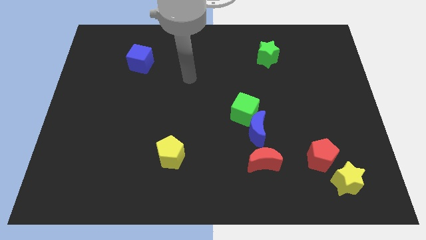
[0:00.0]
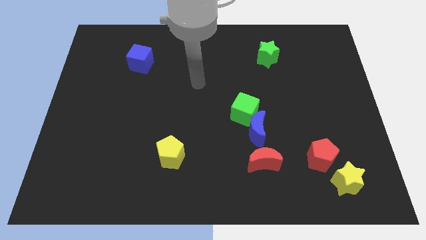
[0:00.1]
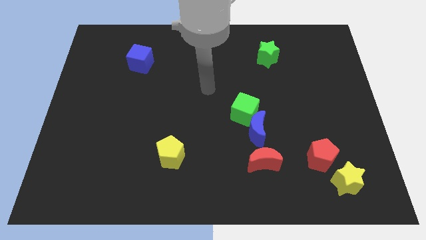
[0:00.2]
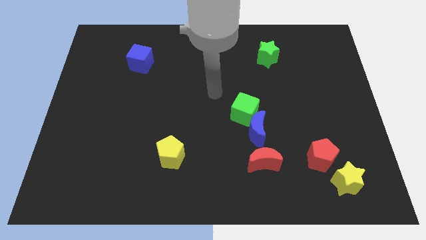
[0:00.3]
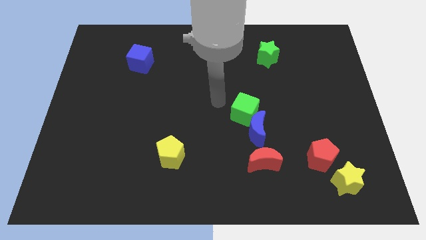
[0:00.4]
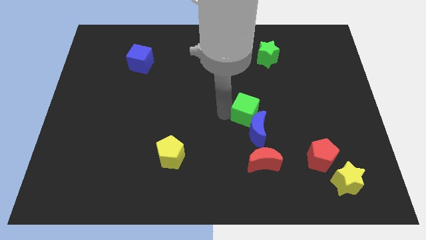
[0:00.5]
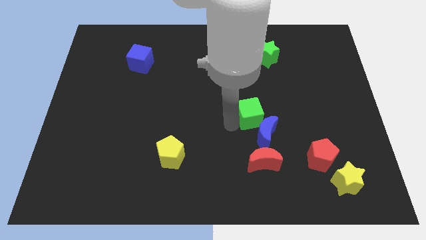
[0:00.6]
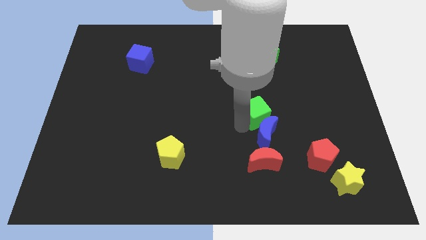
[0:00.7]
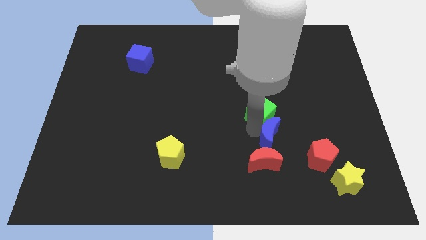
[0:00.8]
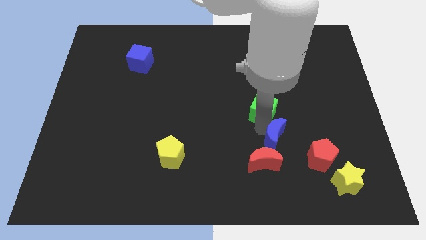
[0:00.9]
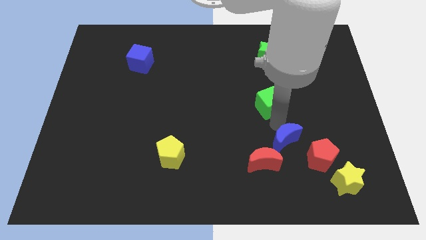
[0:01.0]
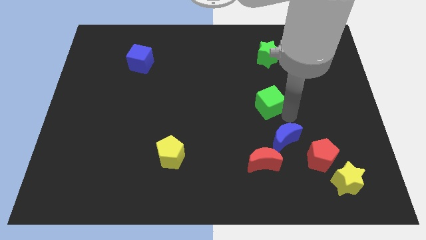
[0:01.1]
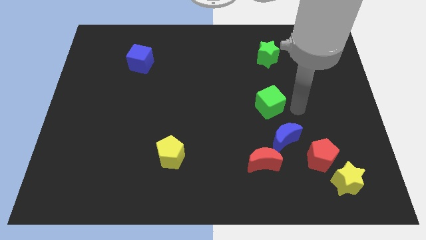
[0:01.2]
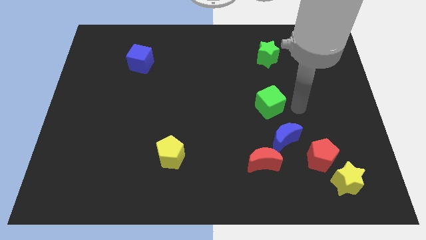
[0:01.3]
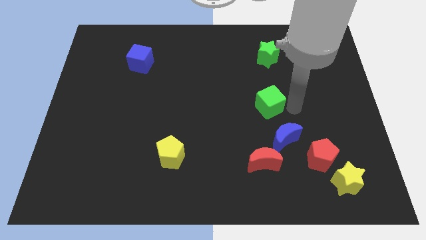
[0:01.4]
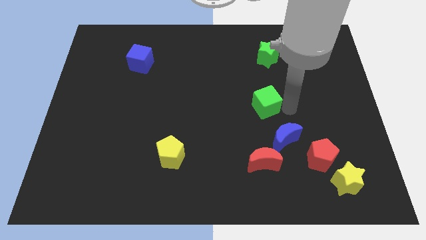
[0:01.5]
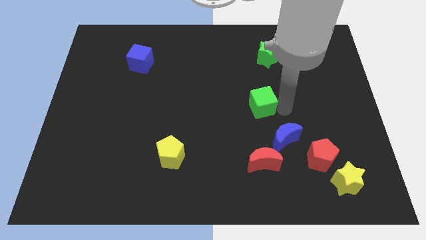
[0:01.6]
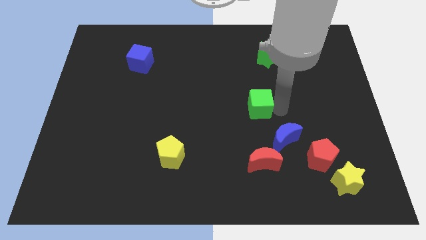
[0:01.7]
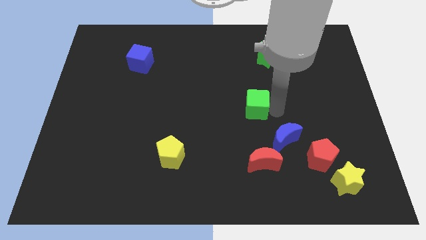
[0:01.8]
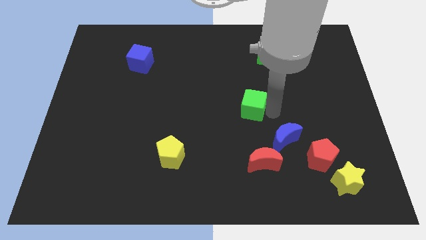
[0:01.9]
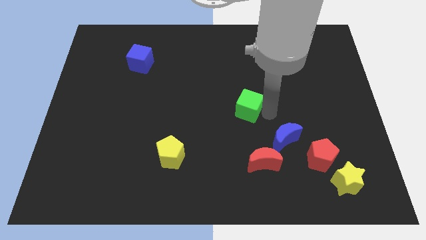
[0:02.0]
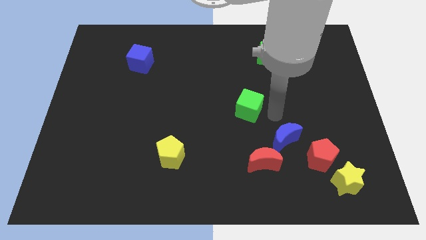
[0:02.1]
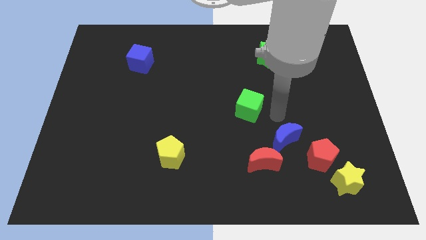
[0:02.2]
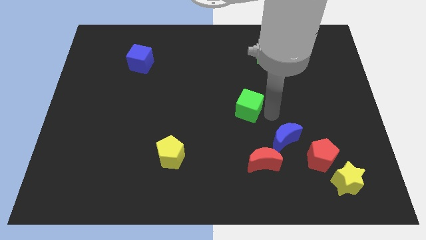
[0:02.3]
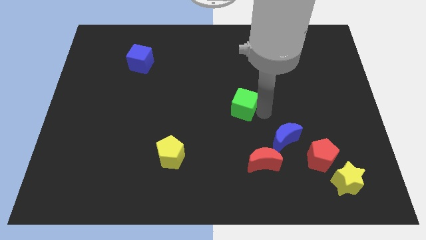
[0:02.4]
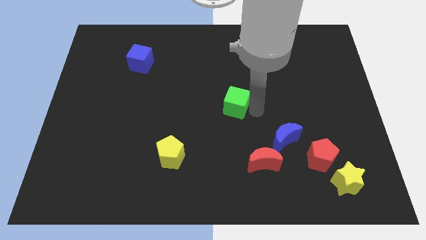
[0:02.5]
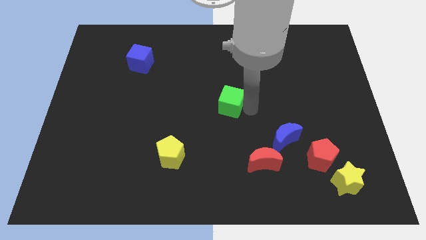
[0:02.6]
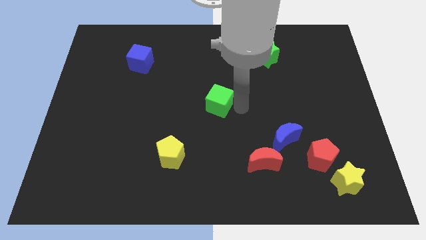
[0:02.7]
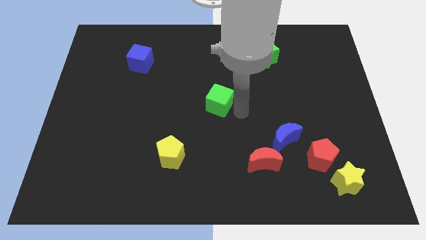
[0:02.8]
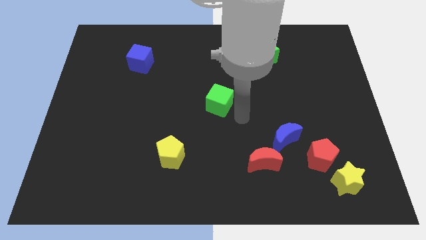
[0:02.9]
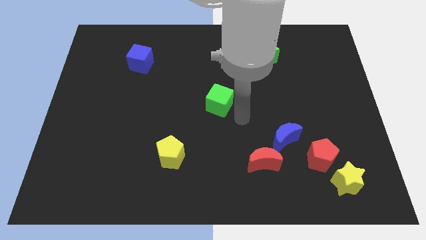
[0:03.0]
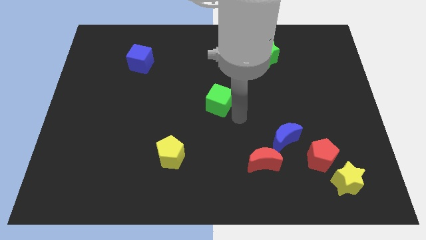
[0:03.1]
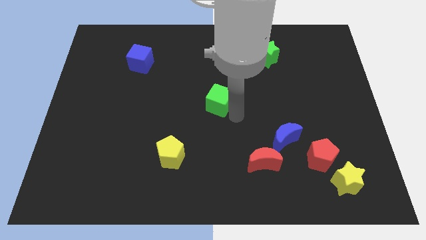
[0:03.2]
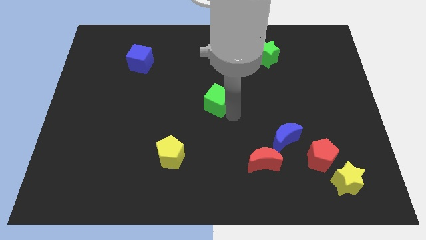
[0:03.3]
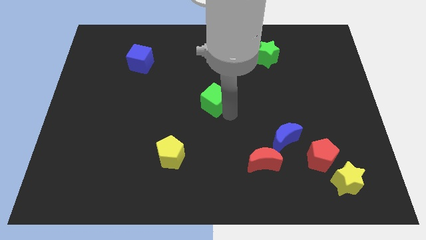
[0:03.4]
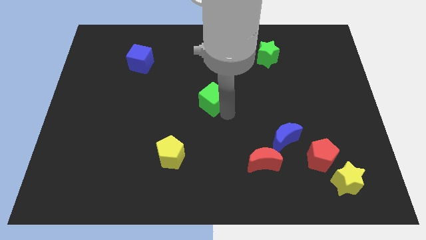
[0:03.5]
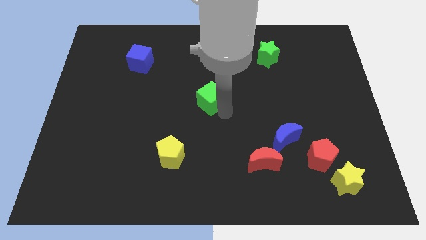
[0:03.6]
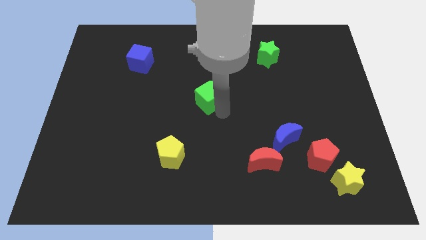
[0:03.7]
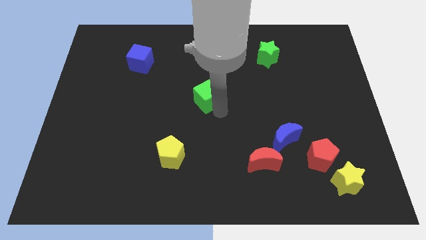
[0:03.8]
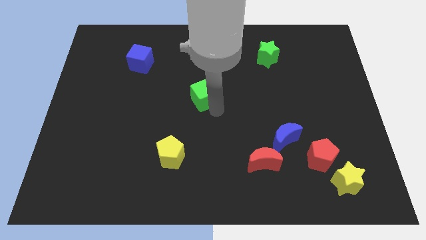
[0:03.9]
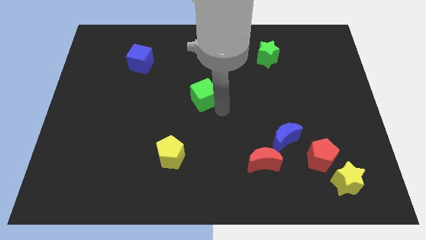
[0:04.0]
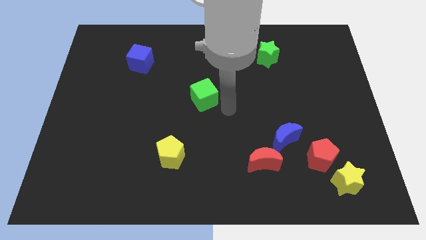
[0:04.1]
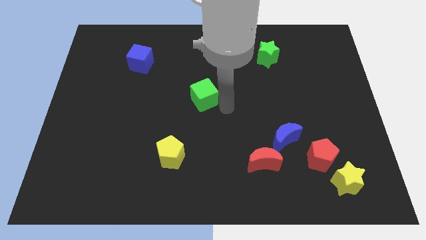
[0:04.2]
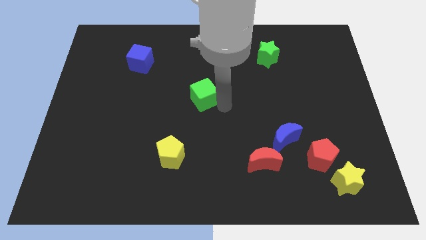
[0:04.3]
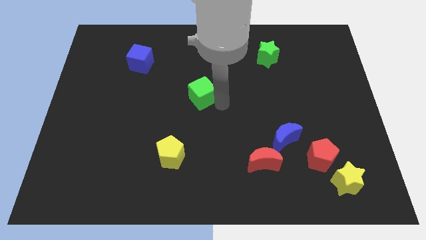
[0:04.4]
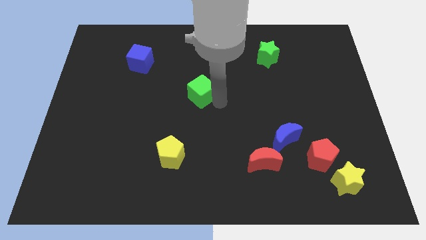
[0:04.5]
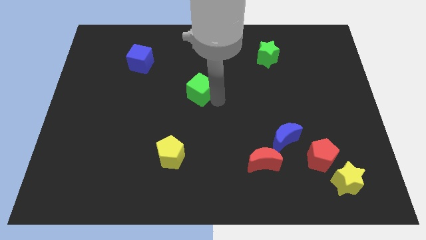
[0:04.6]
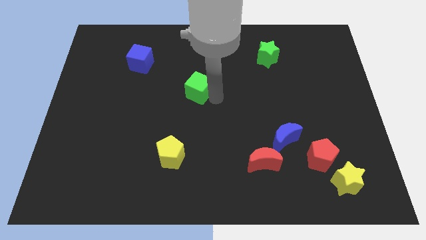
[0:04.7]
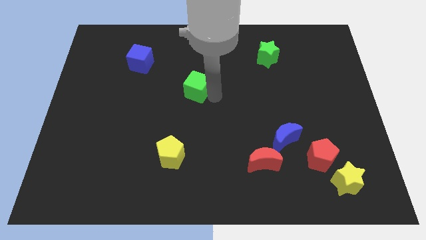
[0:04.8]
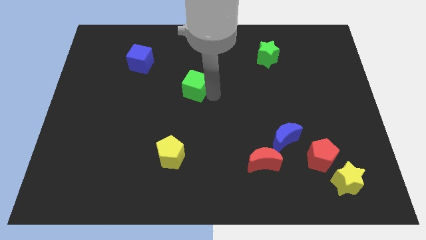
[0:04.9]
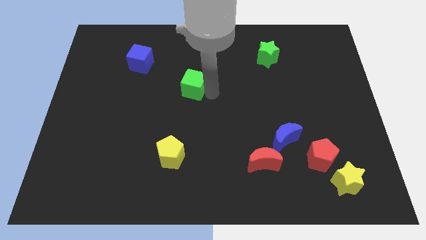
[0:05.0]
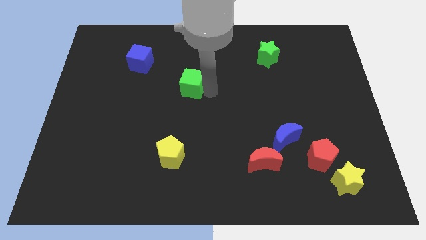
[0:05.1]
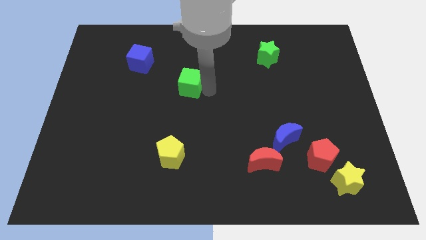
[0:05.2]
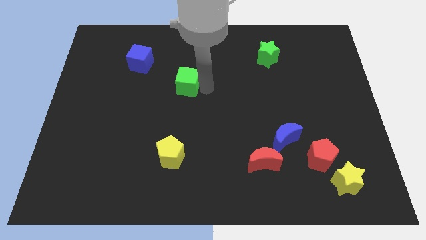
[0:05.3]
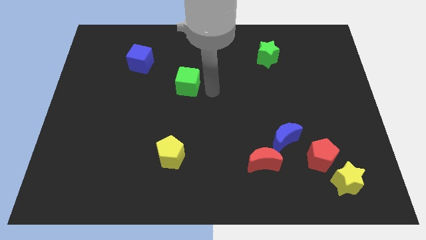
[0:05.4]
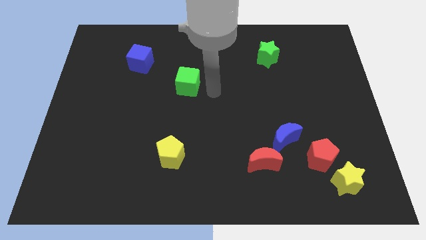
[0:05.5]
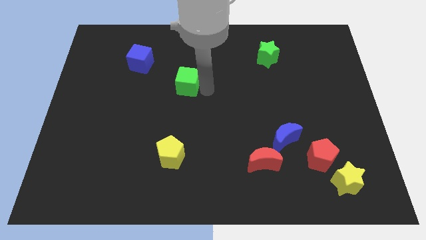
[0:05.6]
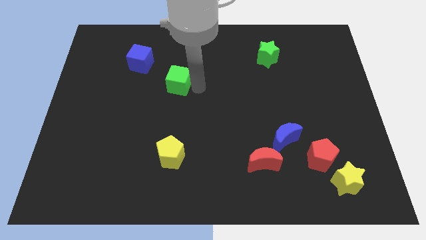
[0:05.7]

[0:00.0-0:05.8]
put the green cube diagonally down and to the right of the blue cube

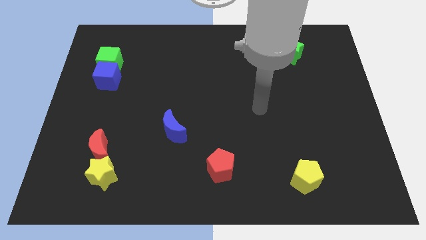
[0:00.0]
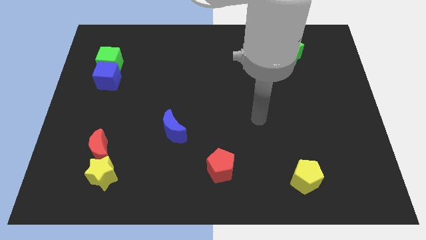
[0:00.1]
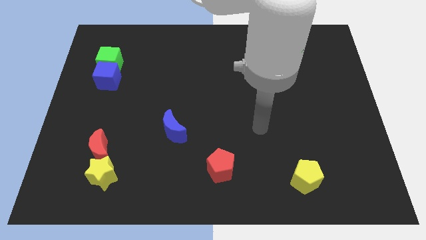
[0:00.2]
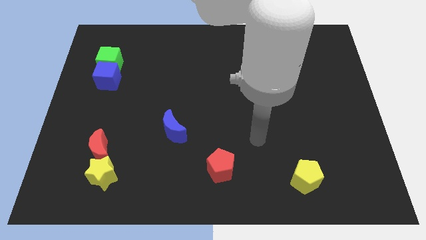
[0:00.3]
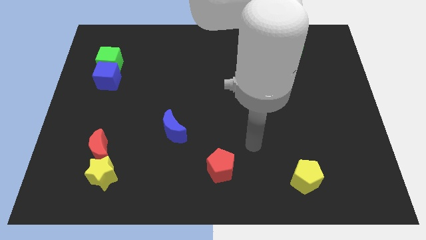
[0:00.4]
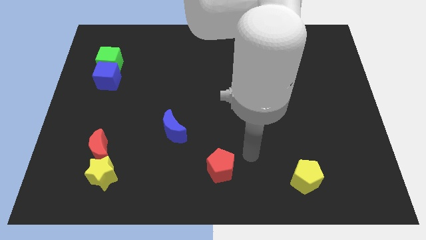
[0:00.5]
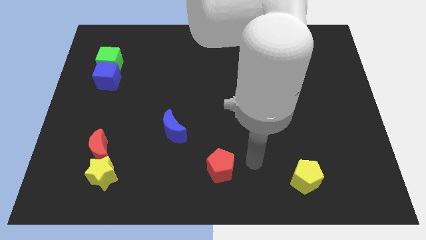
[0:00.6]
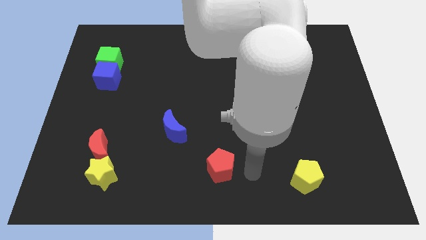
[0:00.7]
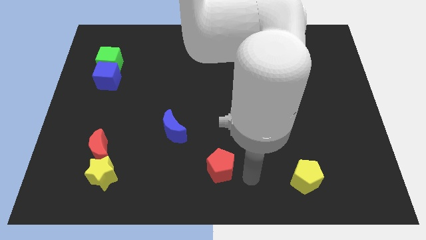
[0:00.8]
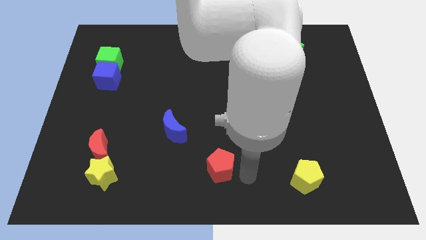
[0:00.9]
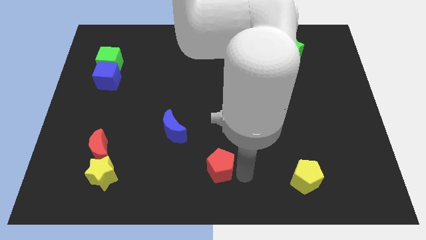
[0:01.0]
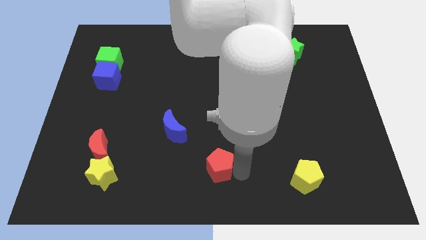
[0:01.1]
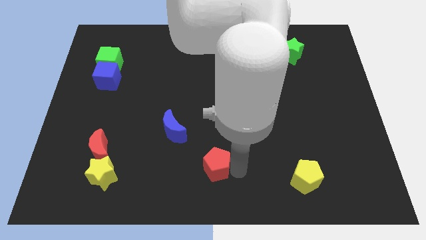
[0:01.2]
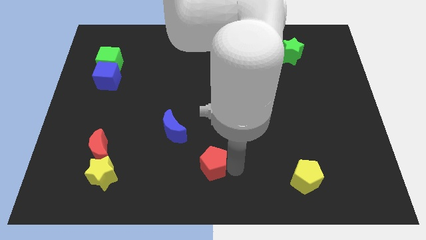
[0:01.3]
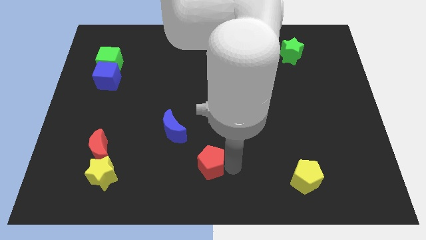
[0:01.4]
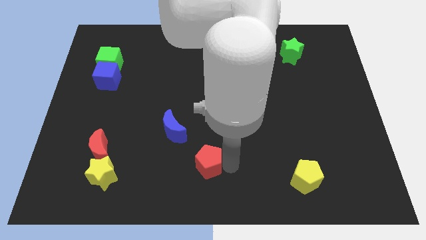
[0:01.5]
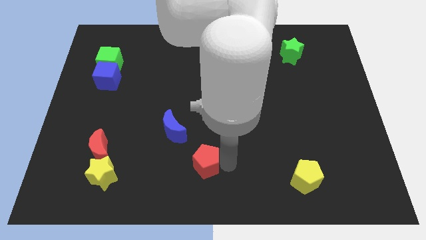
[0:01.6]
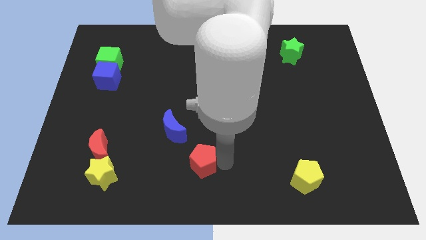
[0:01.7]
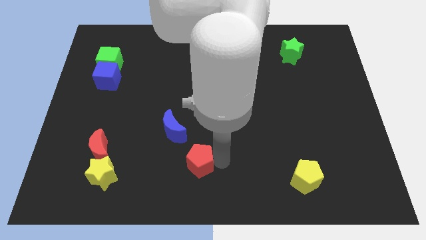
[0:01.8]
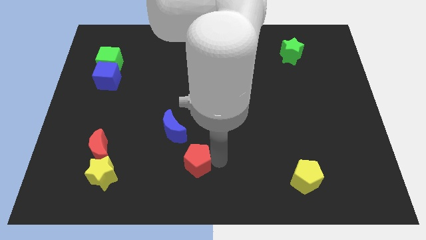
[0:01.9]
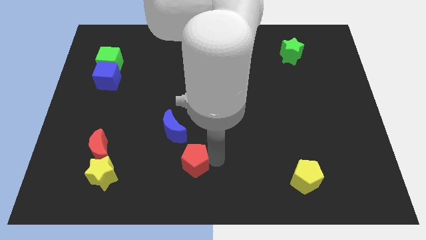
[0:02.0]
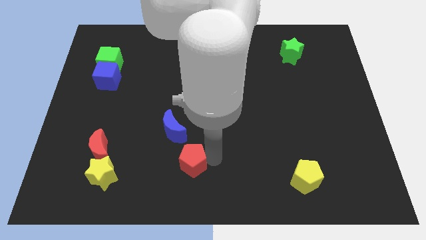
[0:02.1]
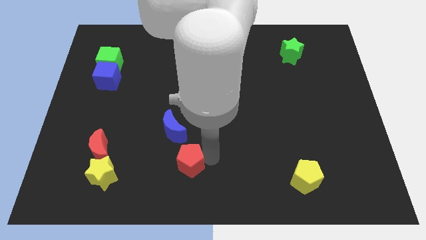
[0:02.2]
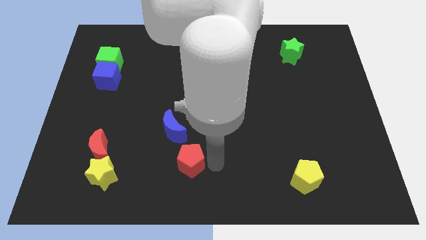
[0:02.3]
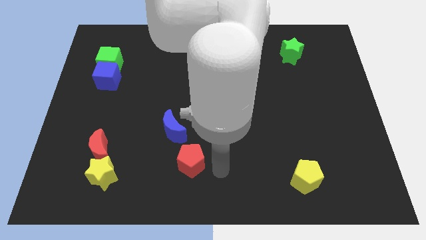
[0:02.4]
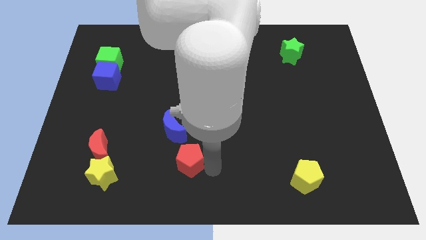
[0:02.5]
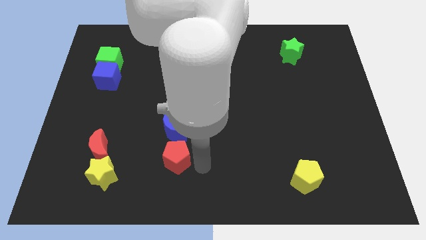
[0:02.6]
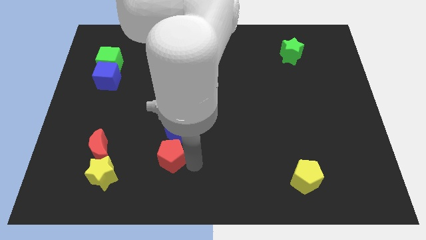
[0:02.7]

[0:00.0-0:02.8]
move the red pentagon to the bottom left side of the blue moon
